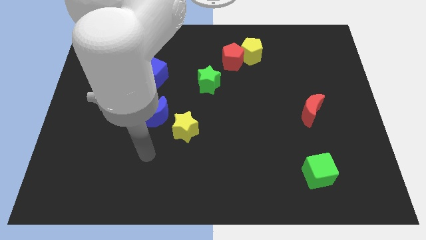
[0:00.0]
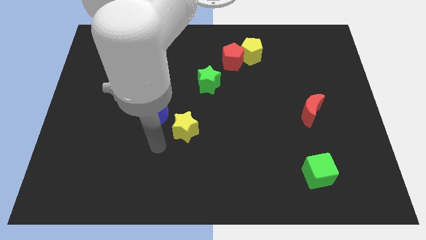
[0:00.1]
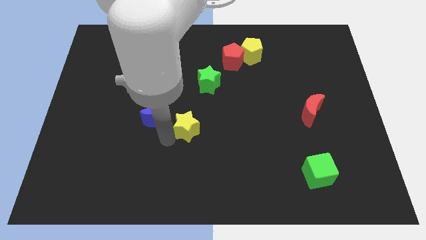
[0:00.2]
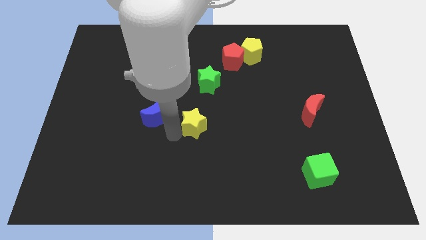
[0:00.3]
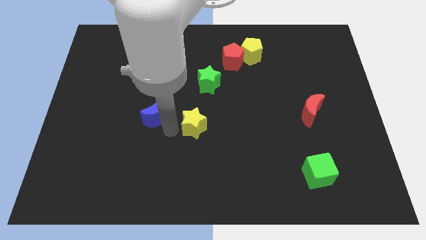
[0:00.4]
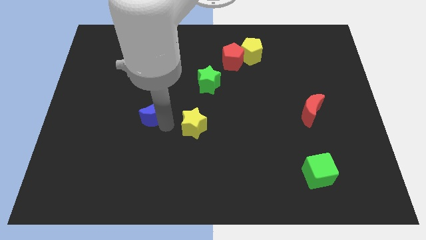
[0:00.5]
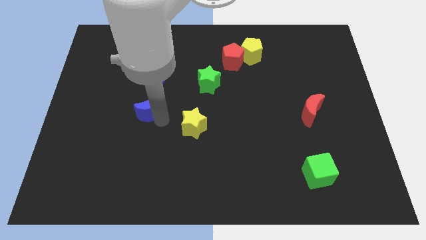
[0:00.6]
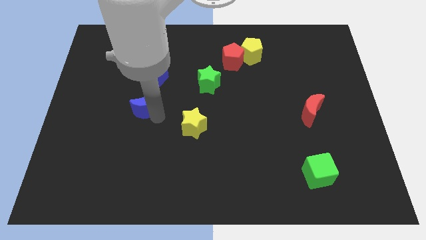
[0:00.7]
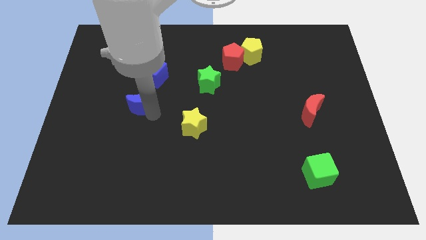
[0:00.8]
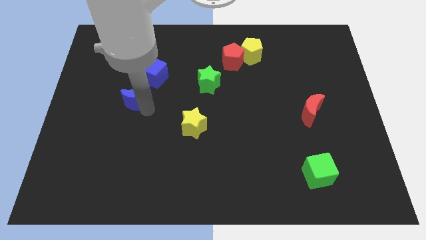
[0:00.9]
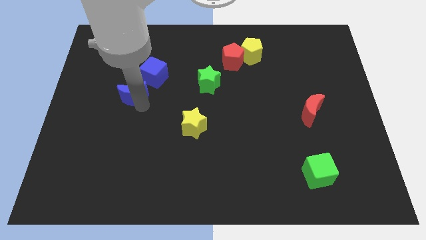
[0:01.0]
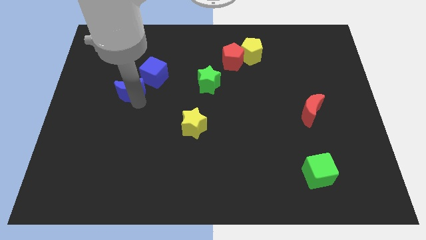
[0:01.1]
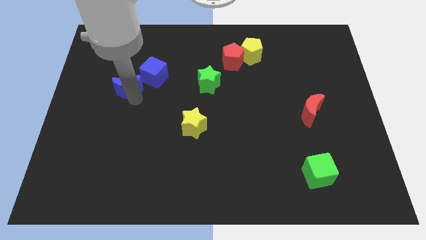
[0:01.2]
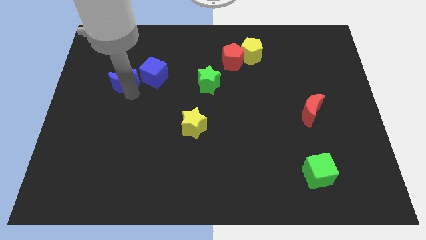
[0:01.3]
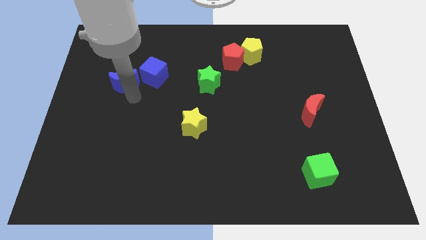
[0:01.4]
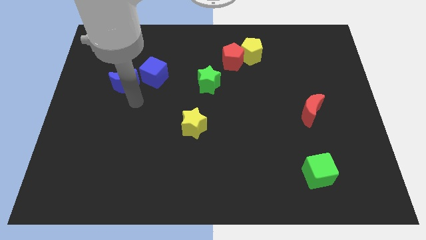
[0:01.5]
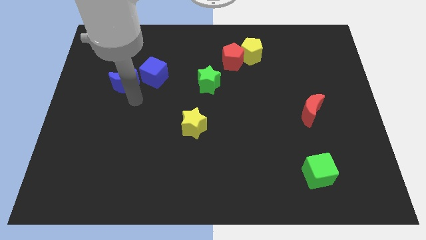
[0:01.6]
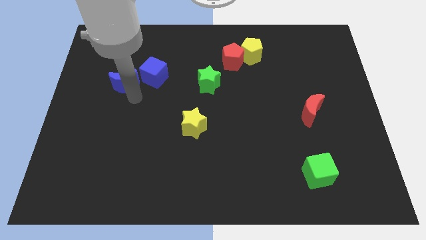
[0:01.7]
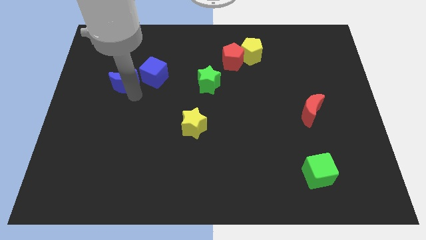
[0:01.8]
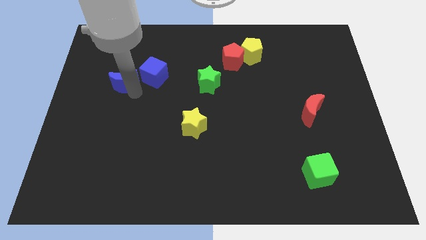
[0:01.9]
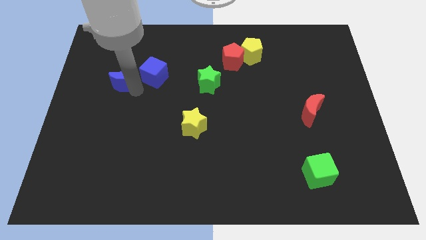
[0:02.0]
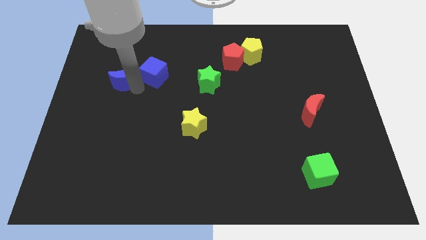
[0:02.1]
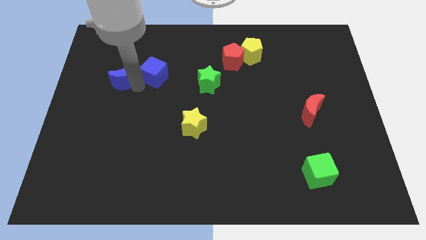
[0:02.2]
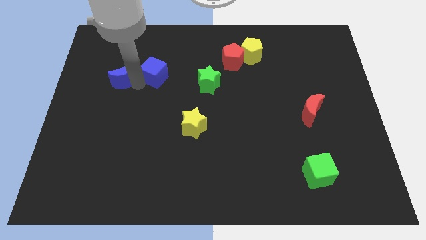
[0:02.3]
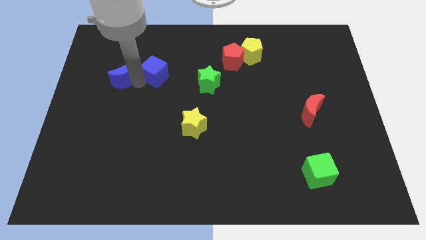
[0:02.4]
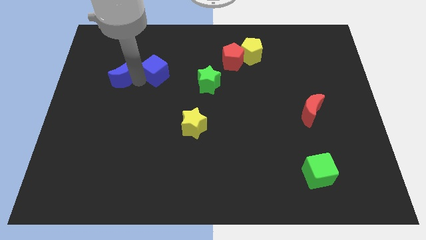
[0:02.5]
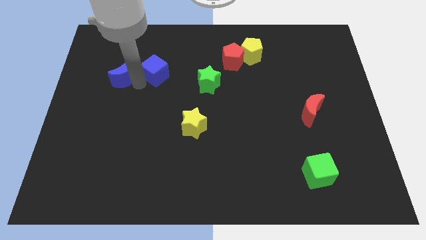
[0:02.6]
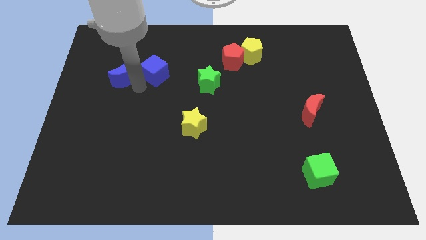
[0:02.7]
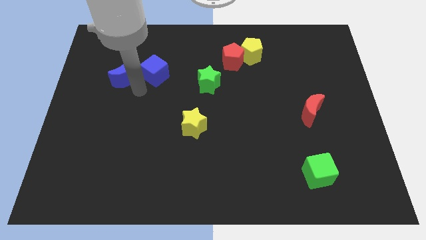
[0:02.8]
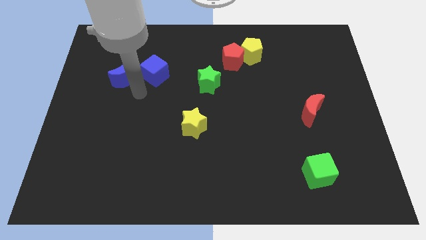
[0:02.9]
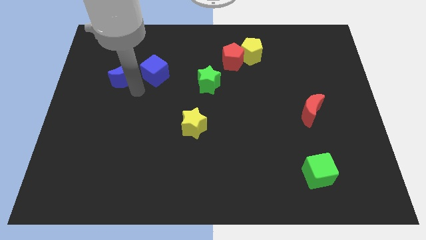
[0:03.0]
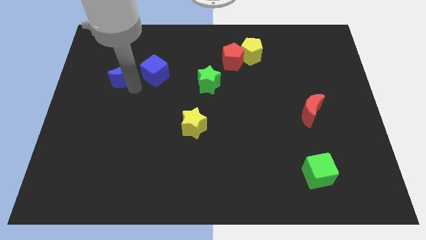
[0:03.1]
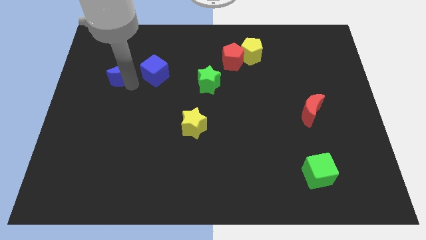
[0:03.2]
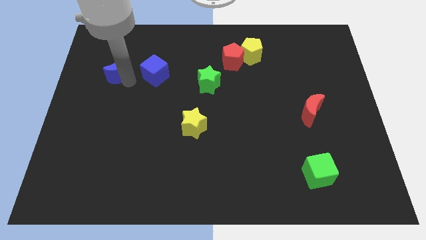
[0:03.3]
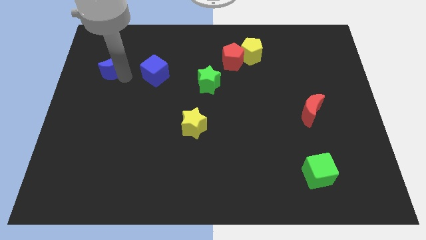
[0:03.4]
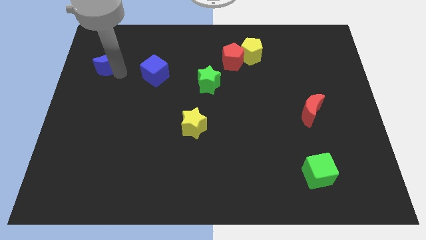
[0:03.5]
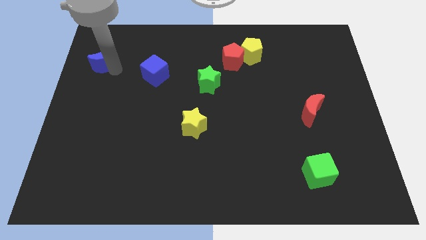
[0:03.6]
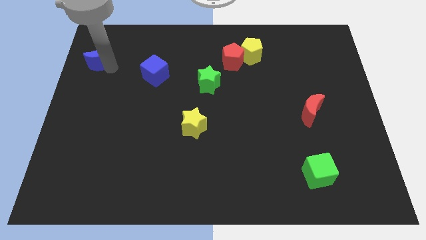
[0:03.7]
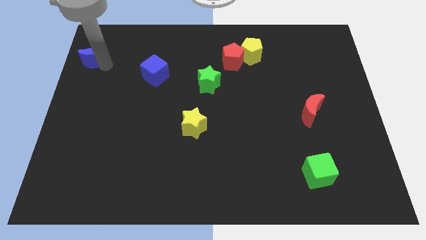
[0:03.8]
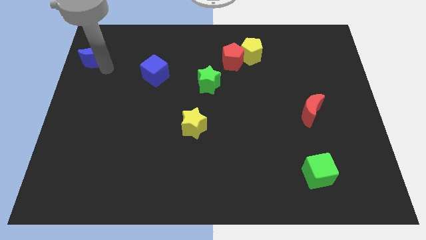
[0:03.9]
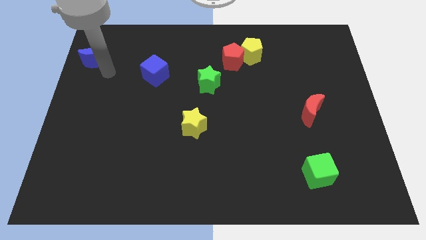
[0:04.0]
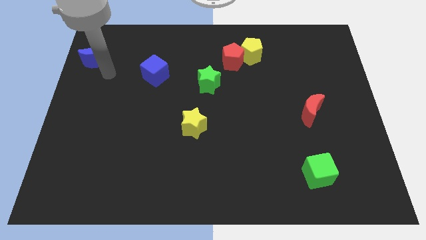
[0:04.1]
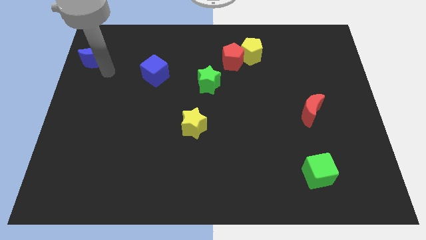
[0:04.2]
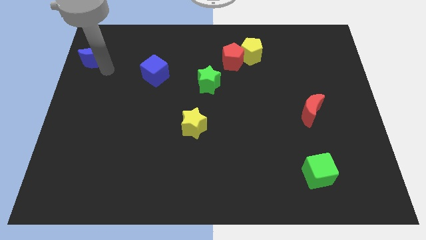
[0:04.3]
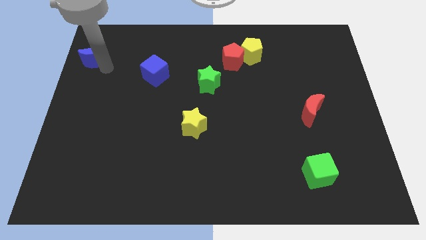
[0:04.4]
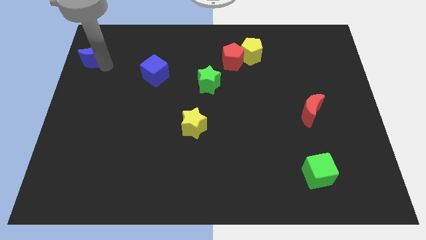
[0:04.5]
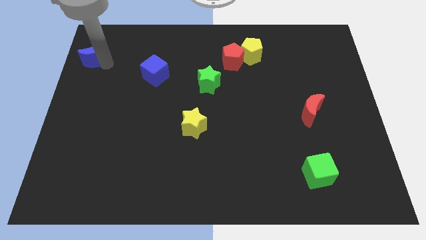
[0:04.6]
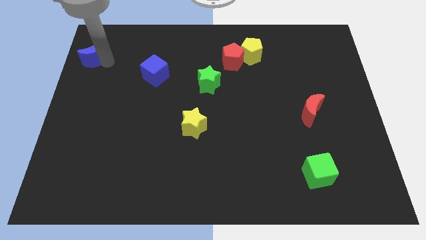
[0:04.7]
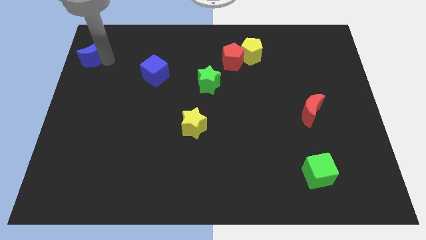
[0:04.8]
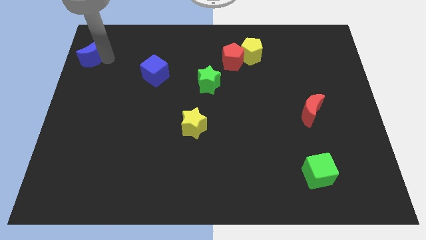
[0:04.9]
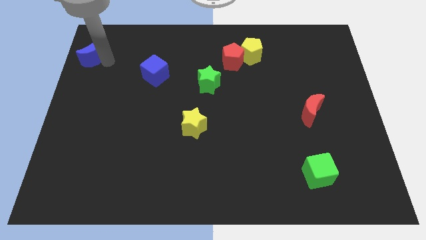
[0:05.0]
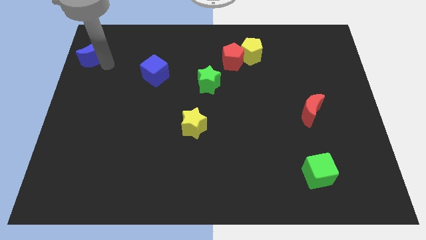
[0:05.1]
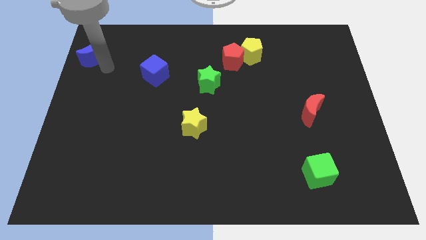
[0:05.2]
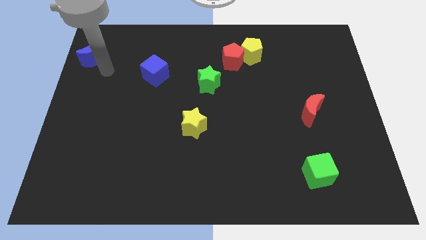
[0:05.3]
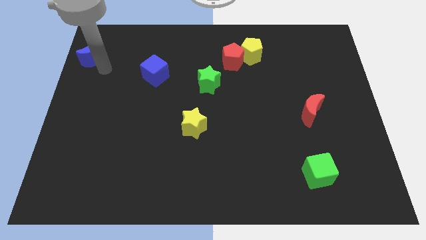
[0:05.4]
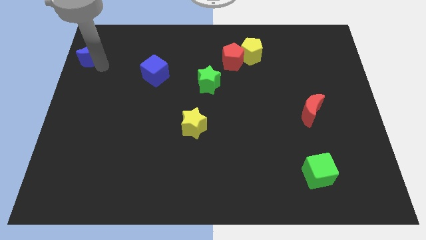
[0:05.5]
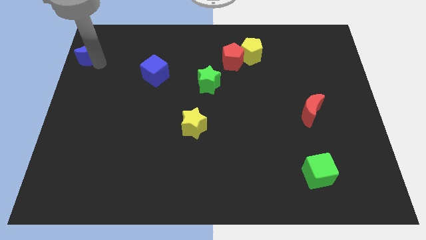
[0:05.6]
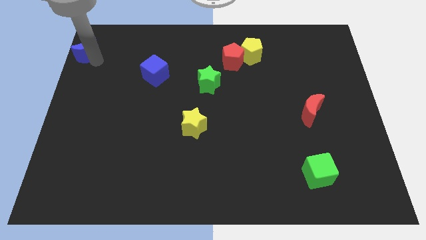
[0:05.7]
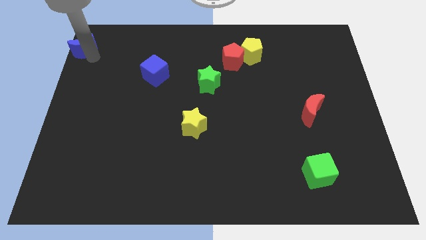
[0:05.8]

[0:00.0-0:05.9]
put the blue moon to the top left corner
